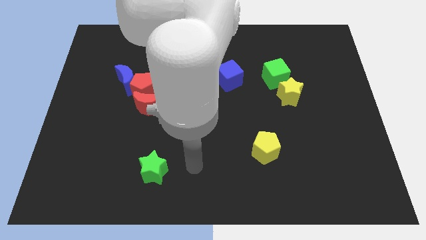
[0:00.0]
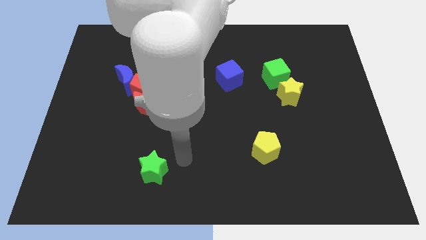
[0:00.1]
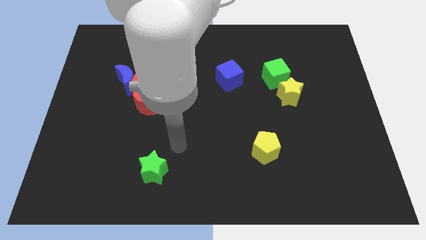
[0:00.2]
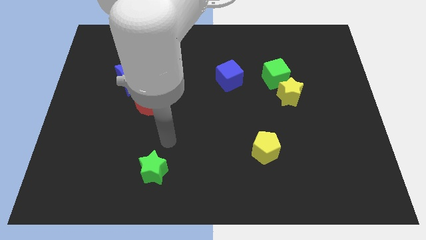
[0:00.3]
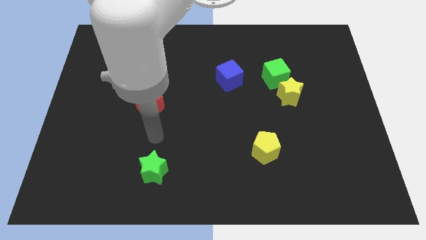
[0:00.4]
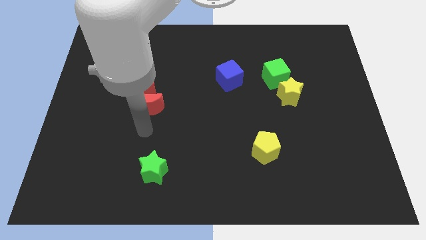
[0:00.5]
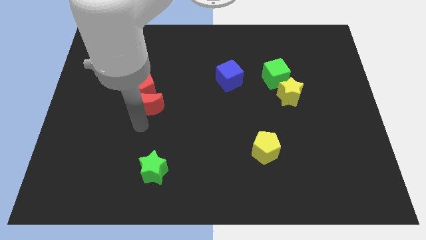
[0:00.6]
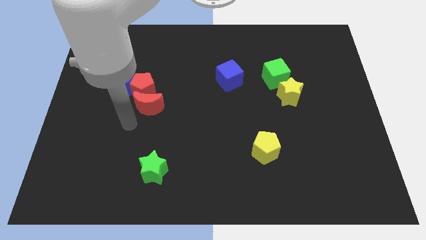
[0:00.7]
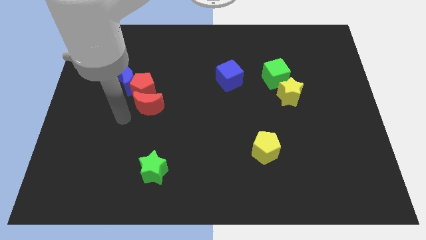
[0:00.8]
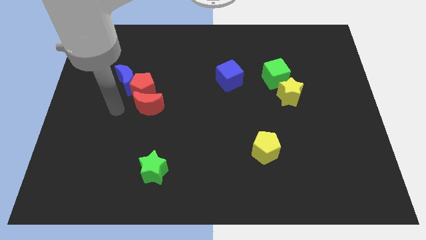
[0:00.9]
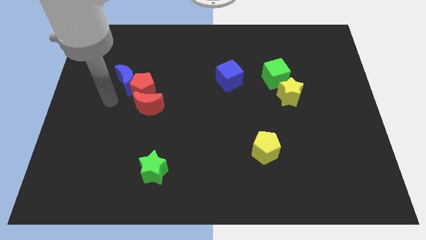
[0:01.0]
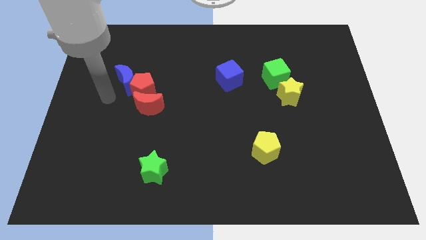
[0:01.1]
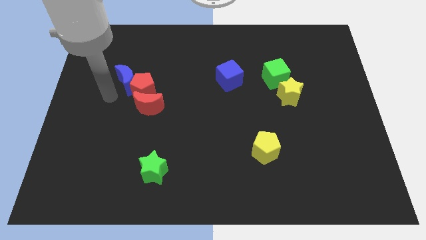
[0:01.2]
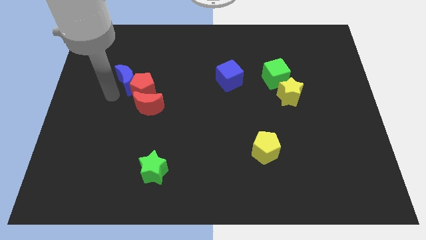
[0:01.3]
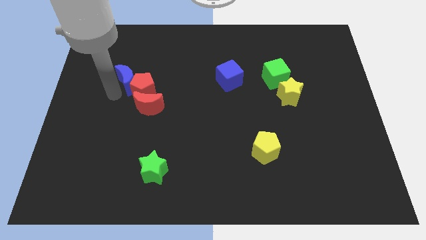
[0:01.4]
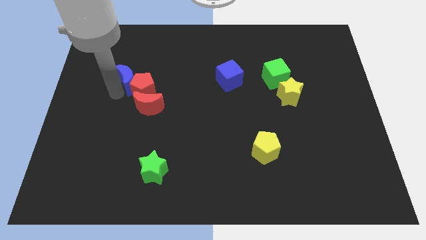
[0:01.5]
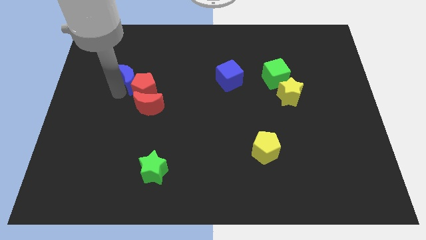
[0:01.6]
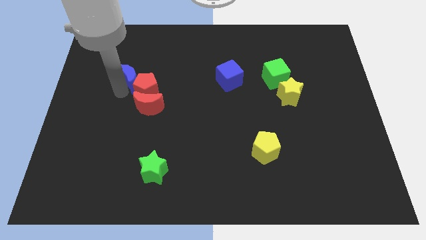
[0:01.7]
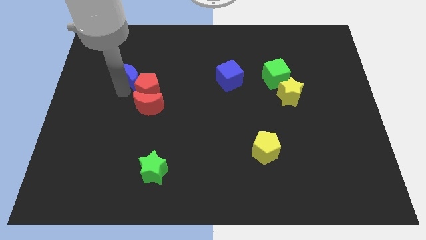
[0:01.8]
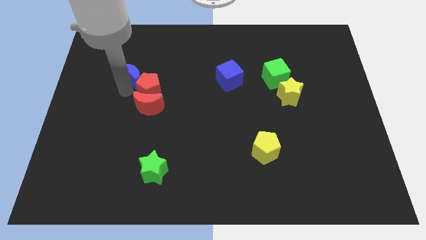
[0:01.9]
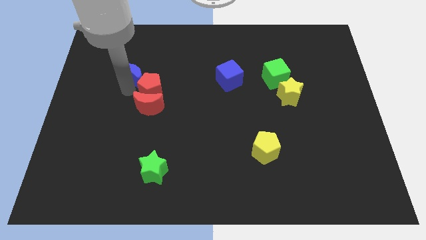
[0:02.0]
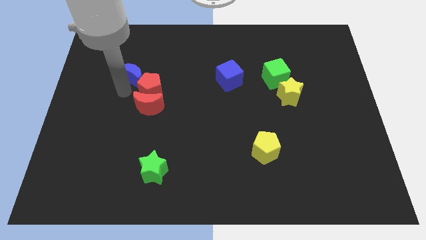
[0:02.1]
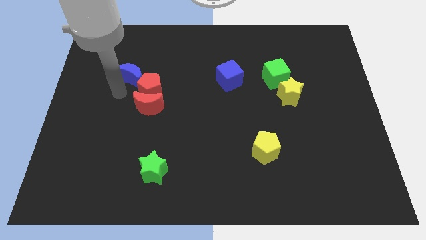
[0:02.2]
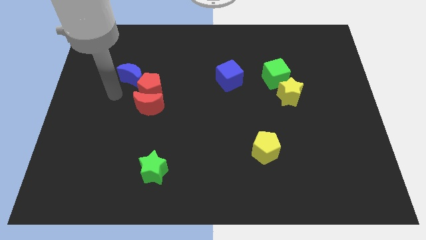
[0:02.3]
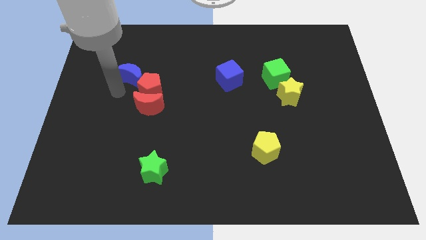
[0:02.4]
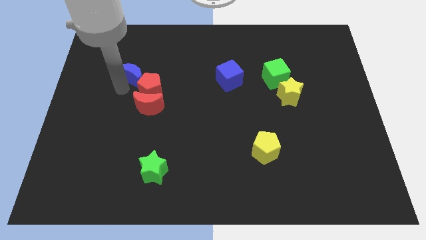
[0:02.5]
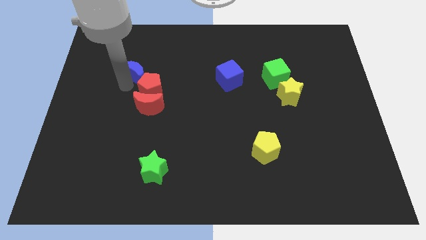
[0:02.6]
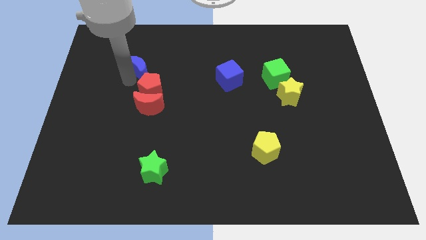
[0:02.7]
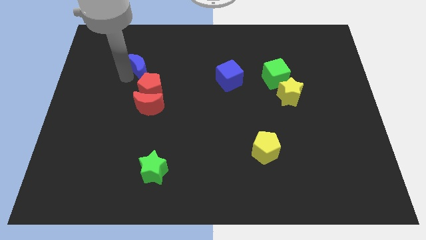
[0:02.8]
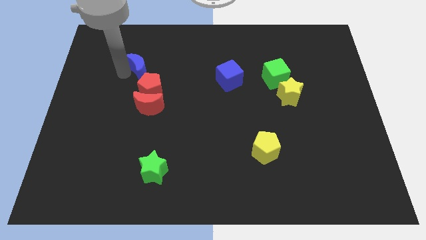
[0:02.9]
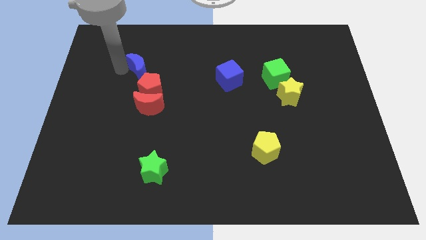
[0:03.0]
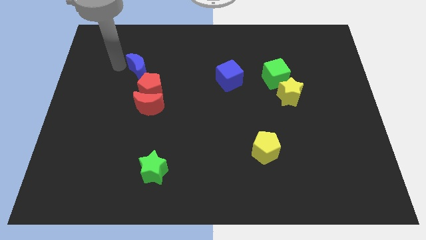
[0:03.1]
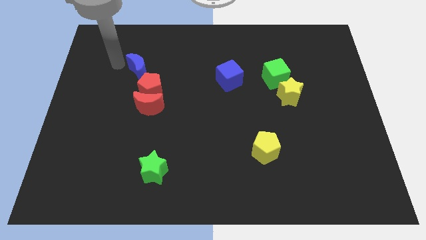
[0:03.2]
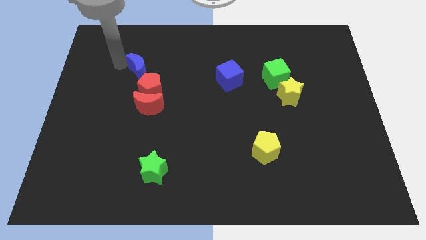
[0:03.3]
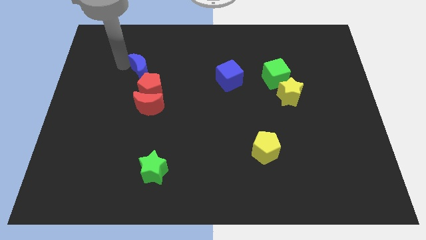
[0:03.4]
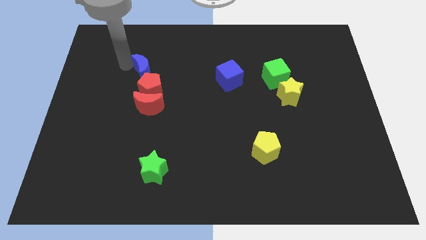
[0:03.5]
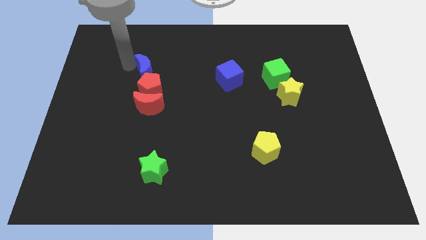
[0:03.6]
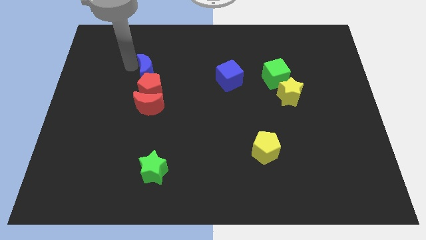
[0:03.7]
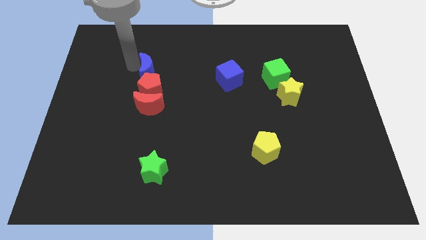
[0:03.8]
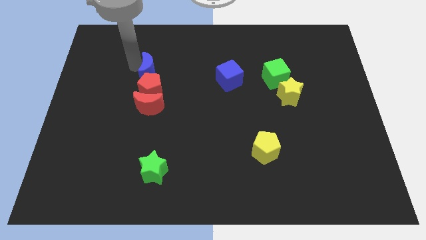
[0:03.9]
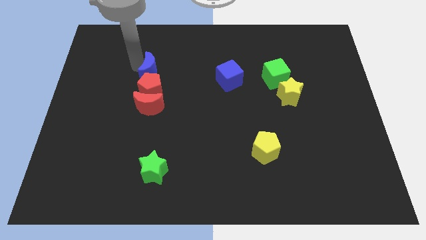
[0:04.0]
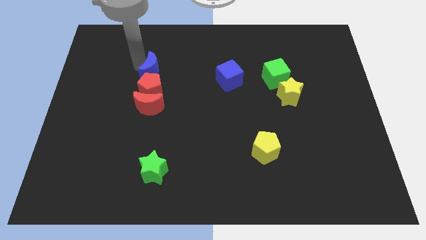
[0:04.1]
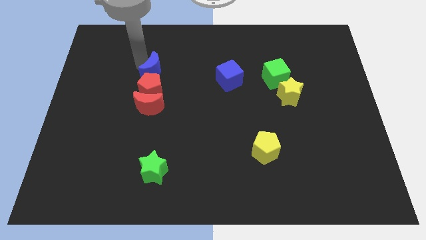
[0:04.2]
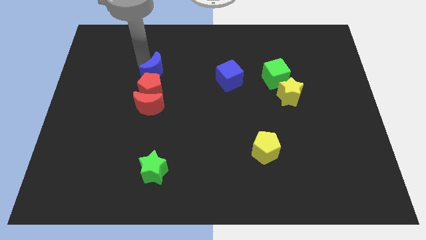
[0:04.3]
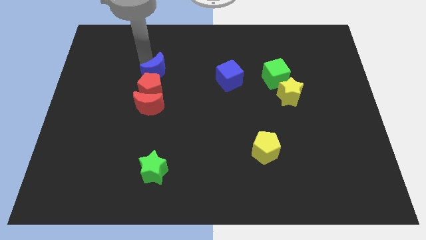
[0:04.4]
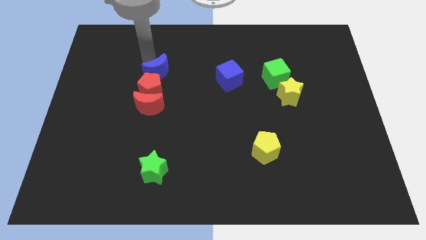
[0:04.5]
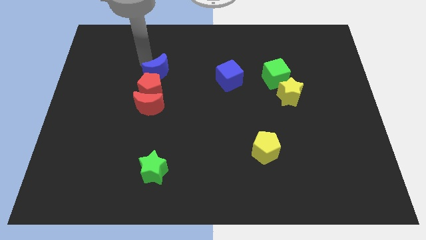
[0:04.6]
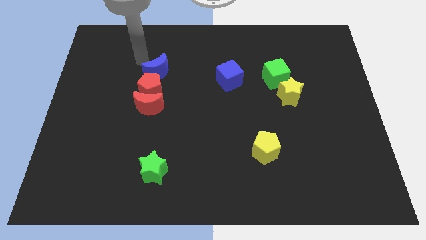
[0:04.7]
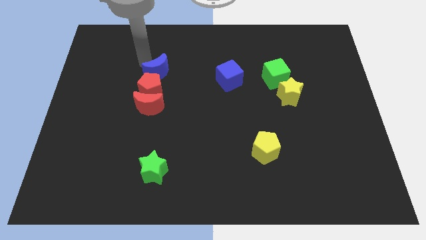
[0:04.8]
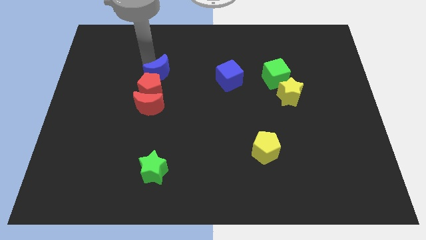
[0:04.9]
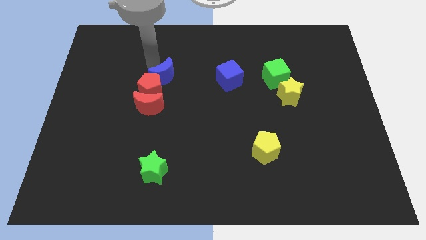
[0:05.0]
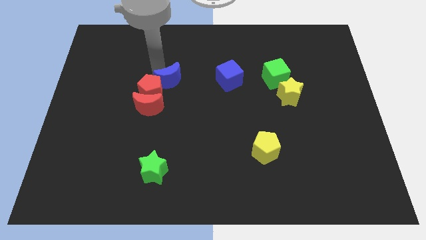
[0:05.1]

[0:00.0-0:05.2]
push the blue moon to the center of the board
